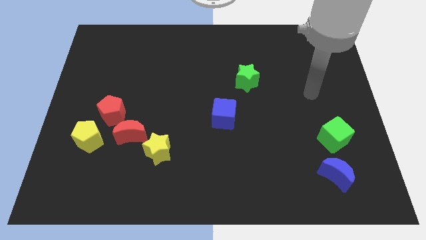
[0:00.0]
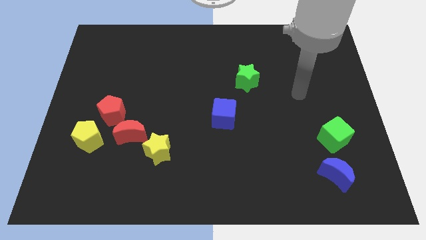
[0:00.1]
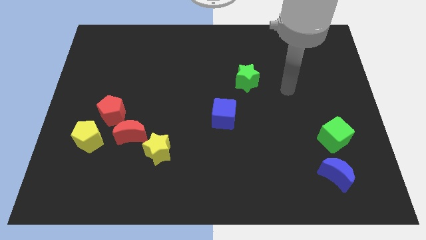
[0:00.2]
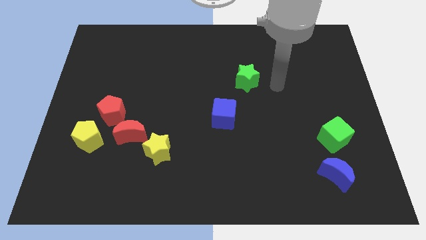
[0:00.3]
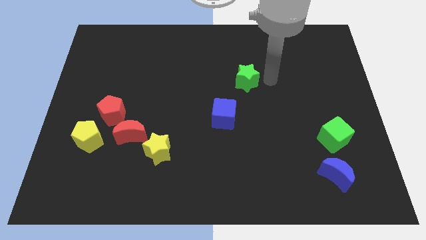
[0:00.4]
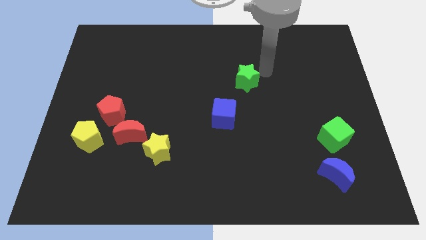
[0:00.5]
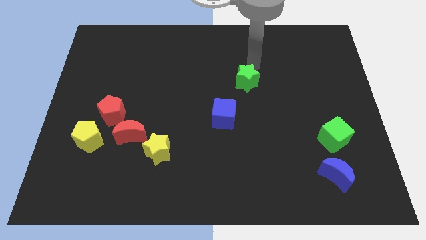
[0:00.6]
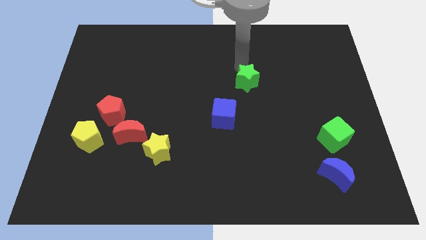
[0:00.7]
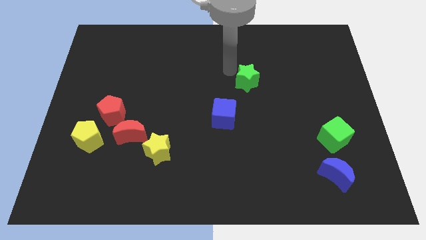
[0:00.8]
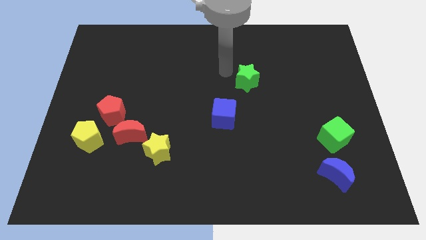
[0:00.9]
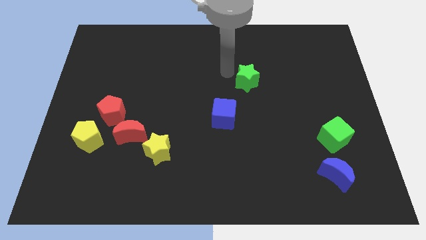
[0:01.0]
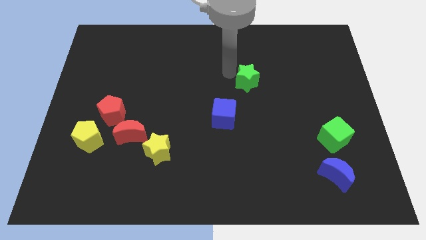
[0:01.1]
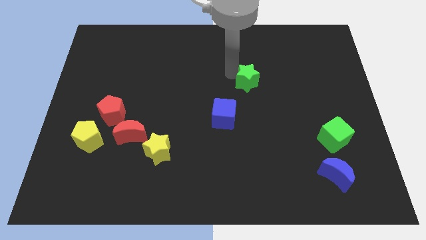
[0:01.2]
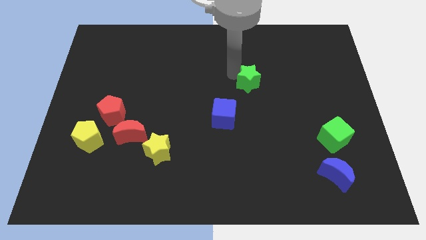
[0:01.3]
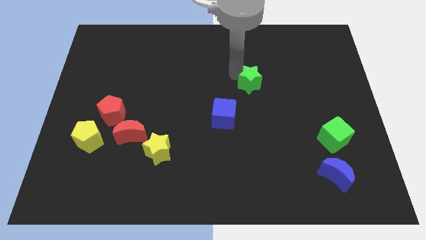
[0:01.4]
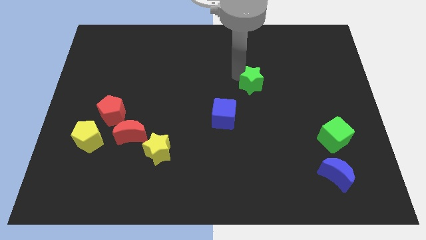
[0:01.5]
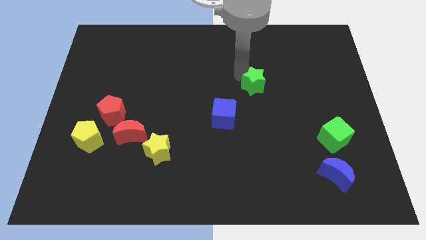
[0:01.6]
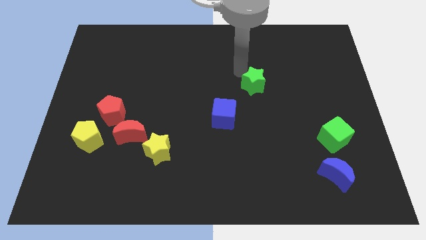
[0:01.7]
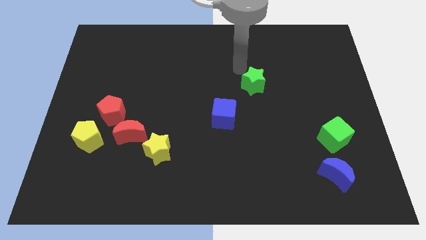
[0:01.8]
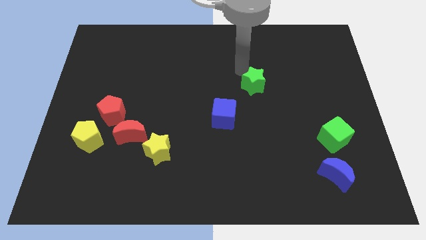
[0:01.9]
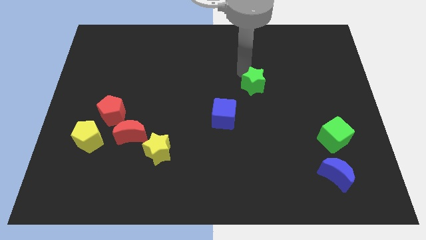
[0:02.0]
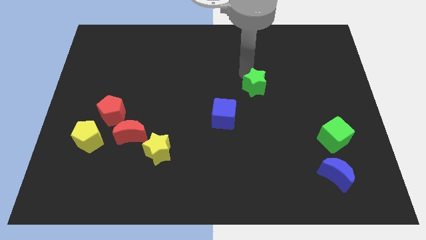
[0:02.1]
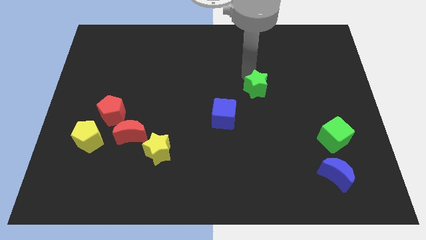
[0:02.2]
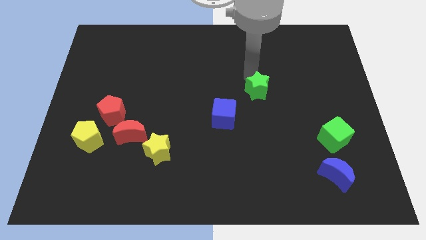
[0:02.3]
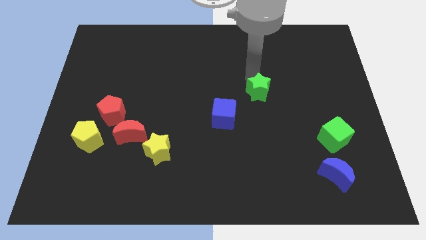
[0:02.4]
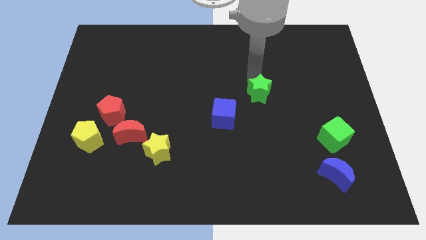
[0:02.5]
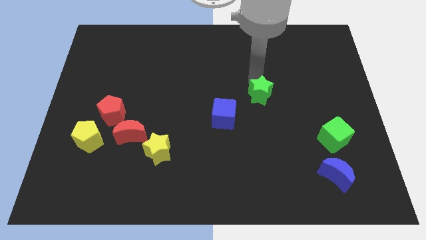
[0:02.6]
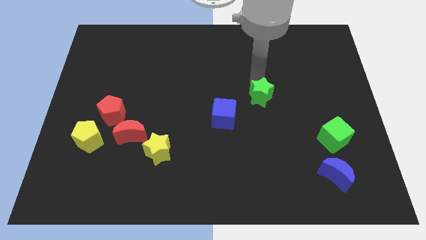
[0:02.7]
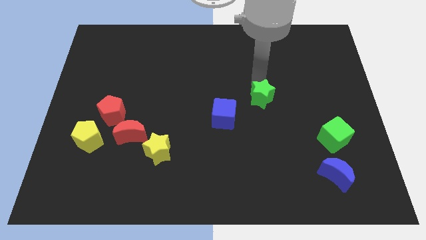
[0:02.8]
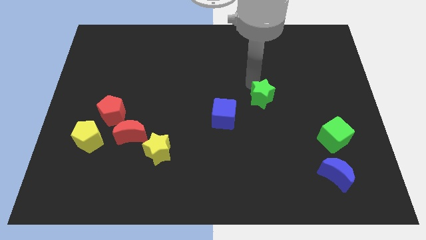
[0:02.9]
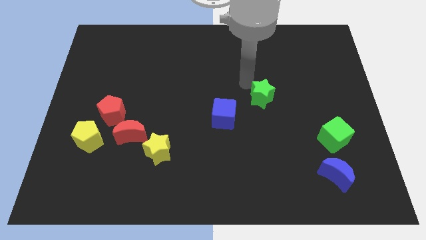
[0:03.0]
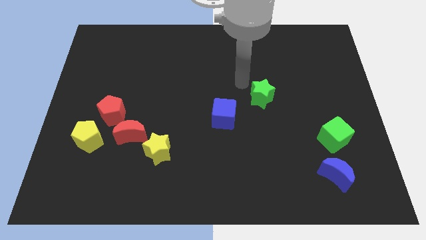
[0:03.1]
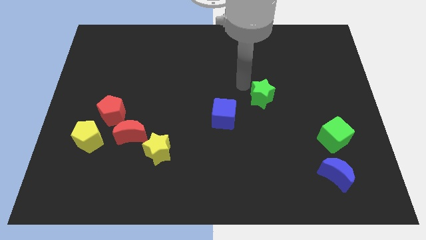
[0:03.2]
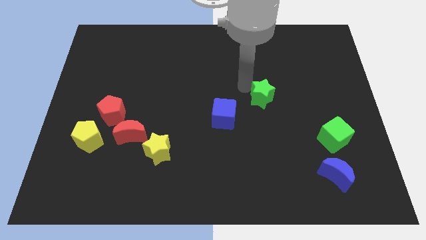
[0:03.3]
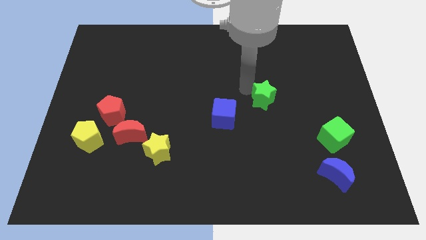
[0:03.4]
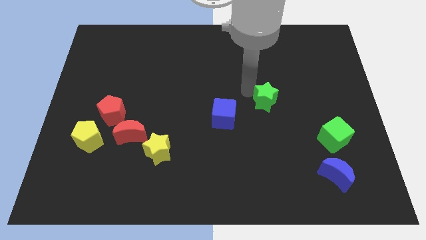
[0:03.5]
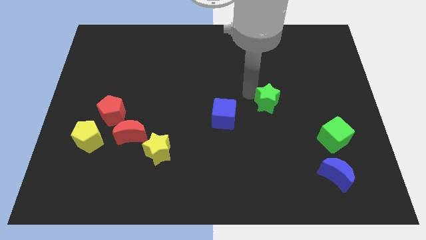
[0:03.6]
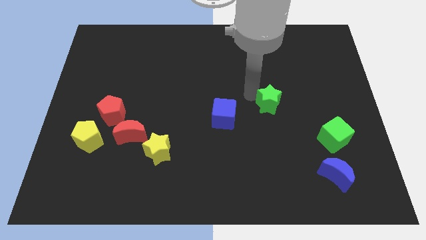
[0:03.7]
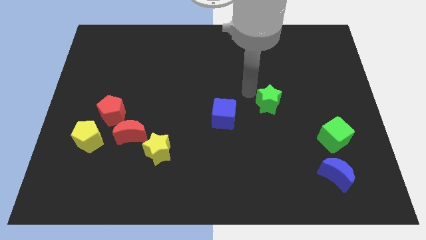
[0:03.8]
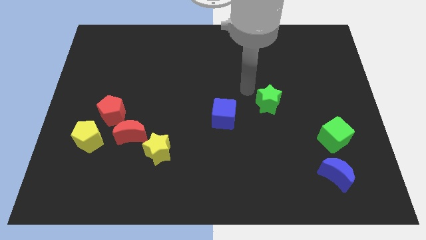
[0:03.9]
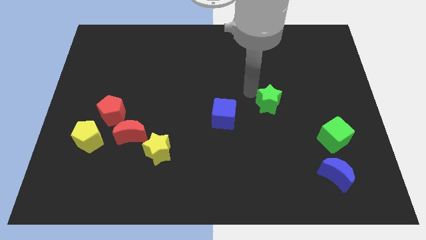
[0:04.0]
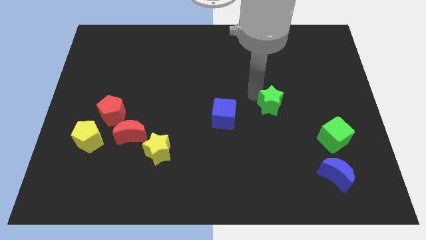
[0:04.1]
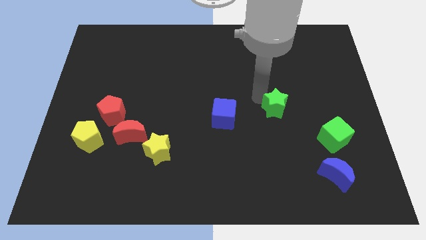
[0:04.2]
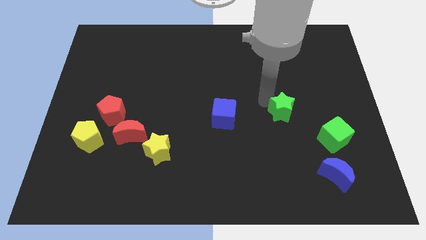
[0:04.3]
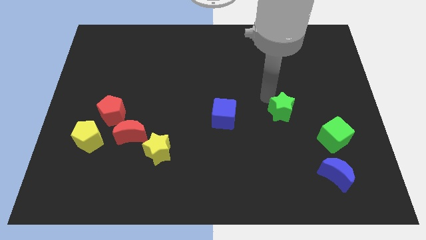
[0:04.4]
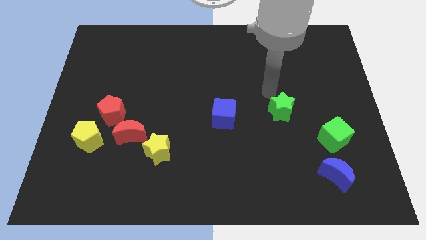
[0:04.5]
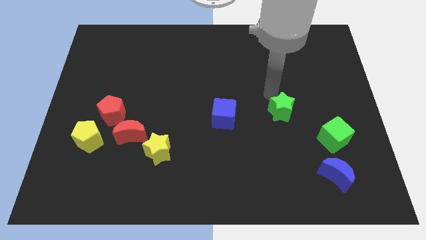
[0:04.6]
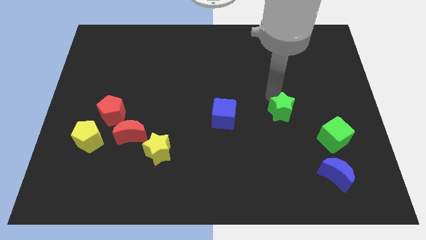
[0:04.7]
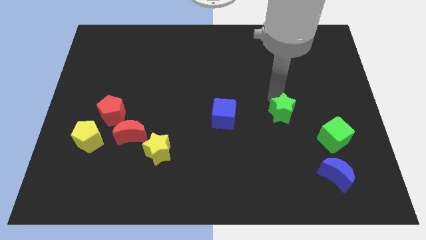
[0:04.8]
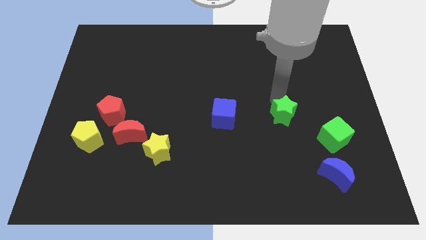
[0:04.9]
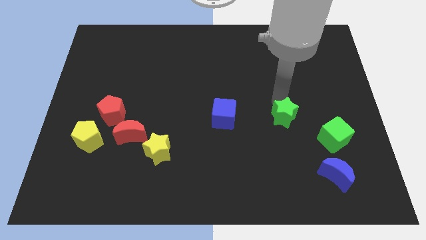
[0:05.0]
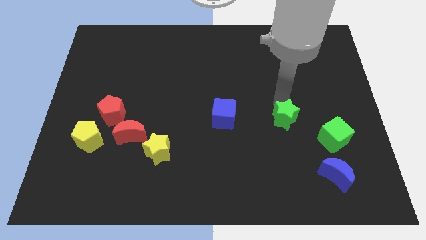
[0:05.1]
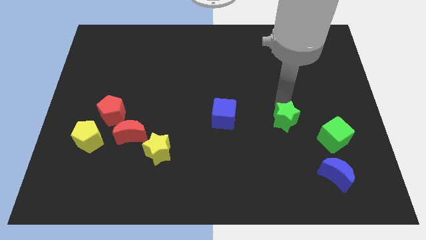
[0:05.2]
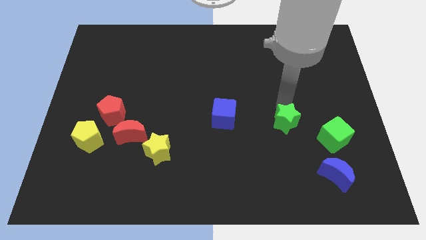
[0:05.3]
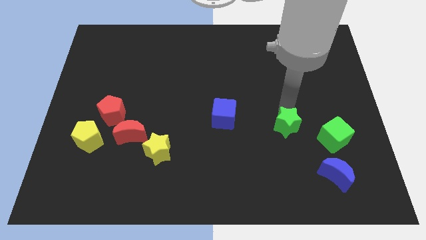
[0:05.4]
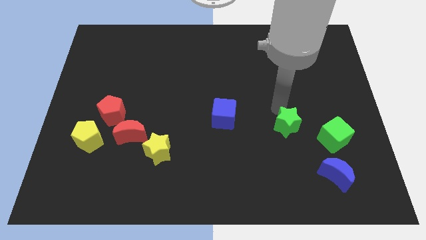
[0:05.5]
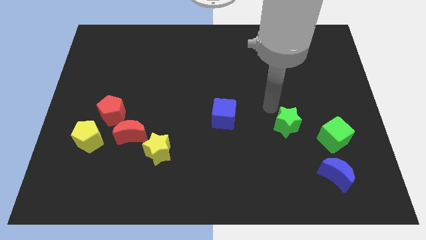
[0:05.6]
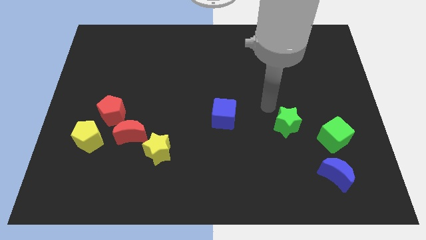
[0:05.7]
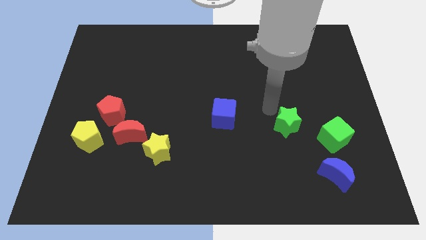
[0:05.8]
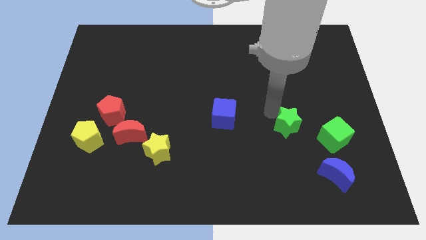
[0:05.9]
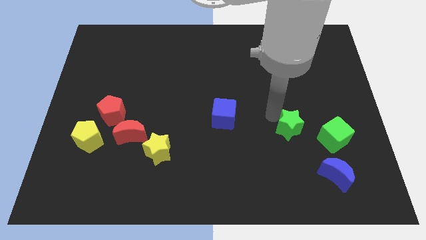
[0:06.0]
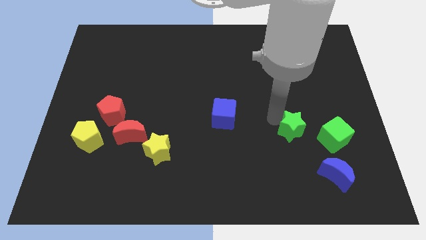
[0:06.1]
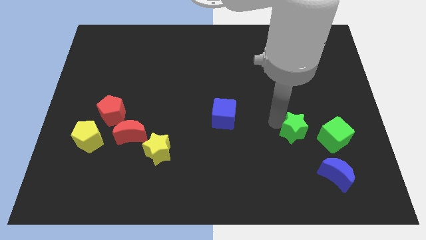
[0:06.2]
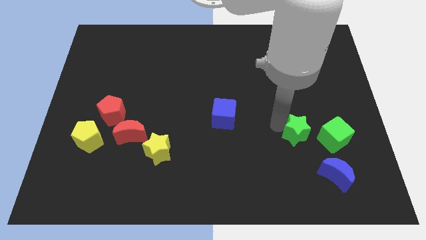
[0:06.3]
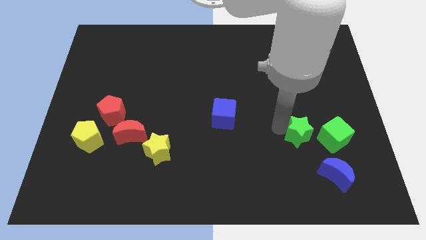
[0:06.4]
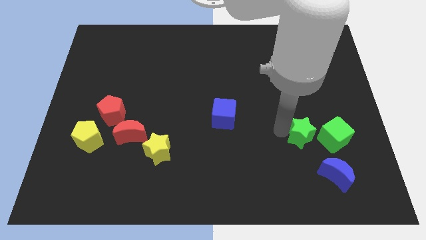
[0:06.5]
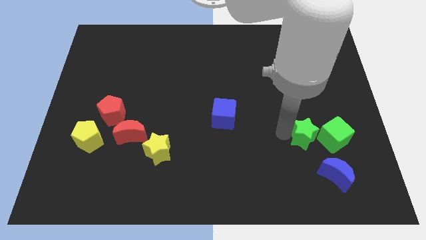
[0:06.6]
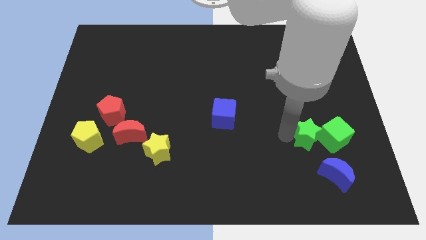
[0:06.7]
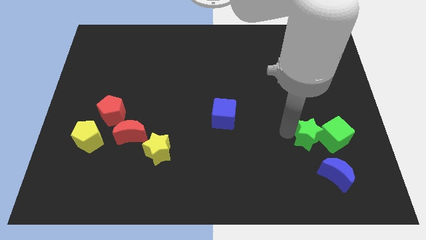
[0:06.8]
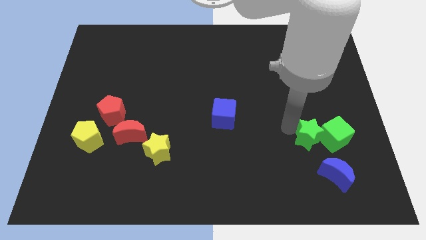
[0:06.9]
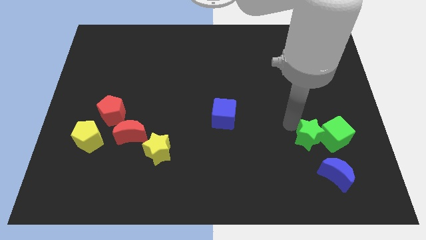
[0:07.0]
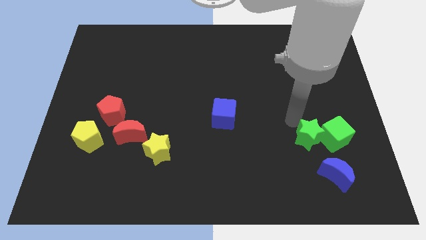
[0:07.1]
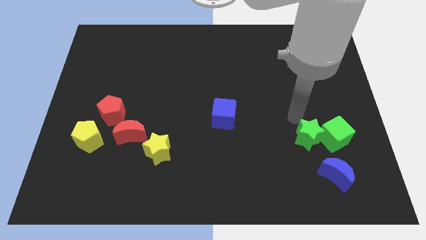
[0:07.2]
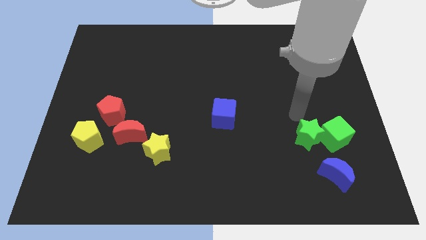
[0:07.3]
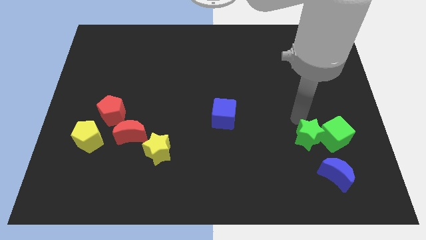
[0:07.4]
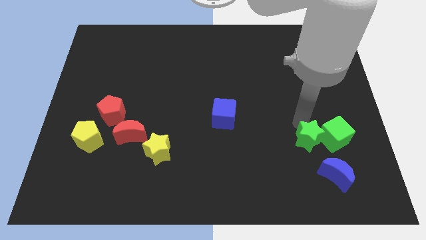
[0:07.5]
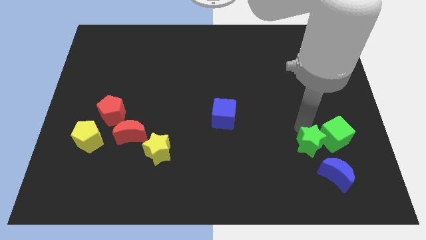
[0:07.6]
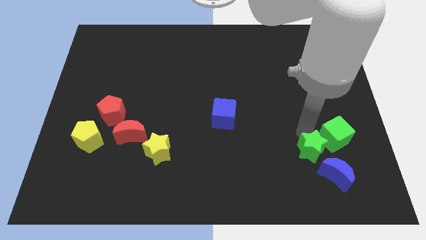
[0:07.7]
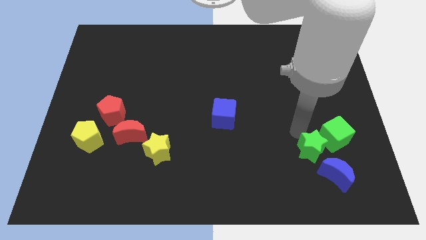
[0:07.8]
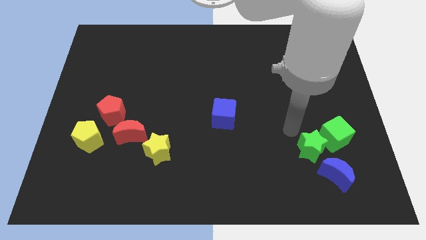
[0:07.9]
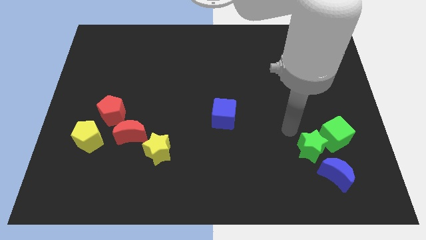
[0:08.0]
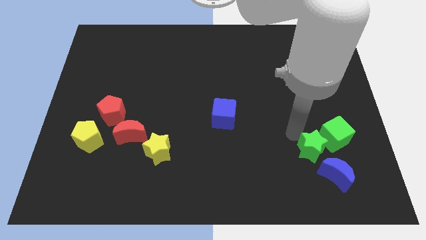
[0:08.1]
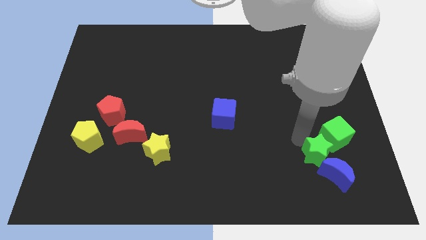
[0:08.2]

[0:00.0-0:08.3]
slide the green star towards the blue moon
